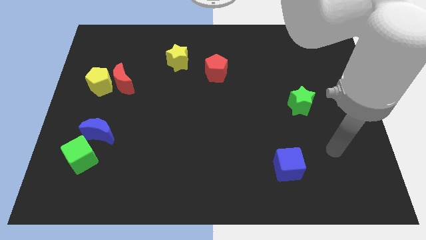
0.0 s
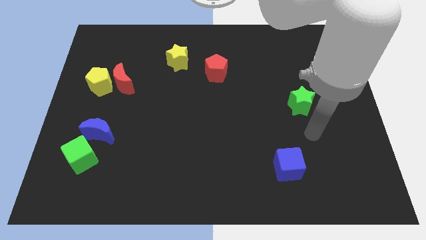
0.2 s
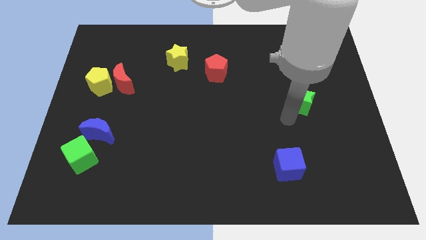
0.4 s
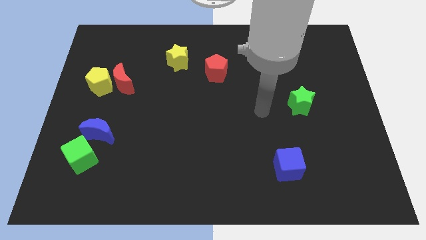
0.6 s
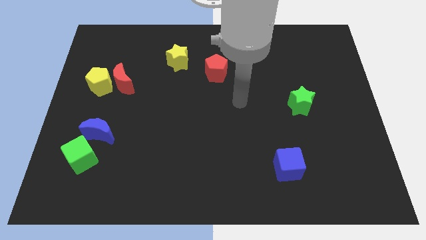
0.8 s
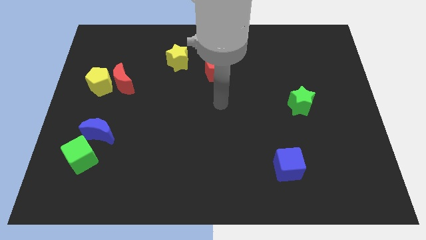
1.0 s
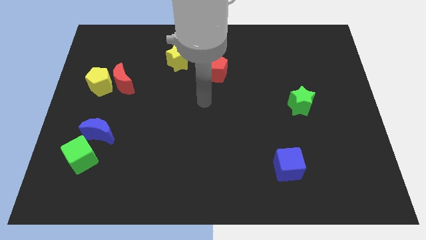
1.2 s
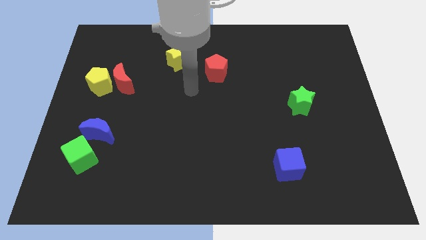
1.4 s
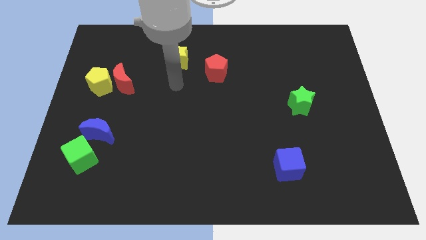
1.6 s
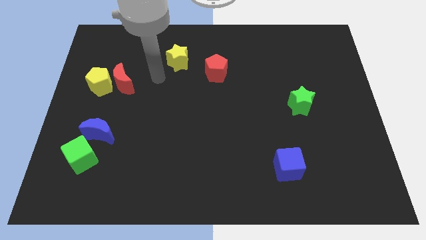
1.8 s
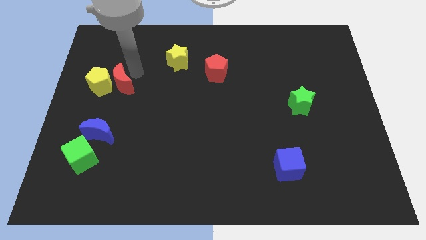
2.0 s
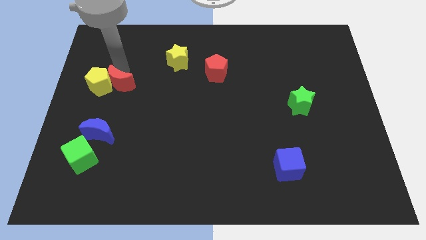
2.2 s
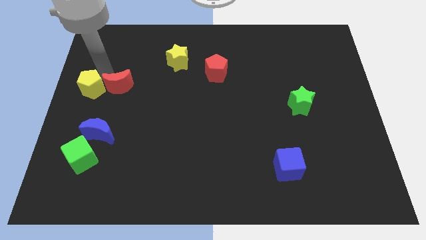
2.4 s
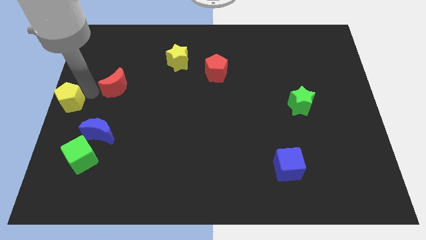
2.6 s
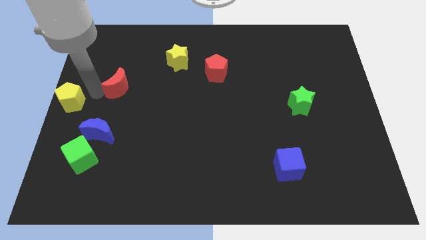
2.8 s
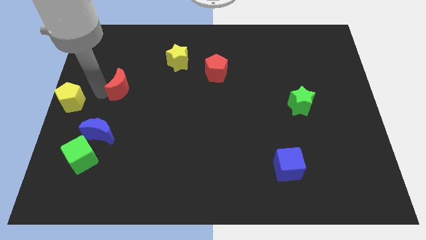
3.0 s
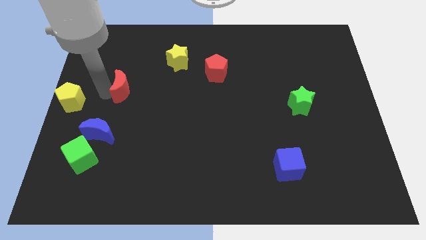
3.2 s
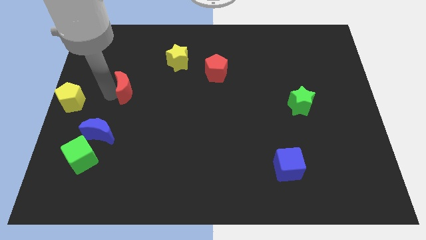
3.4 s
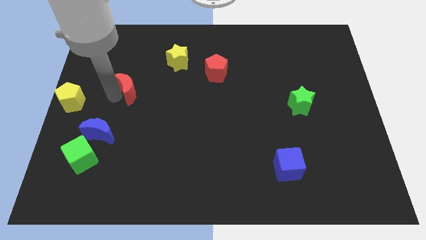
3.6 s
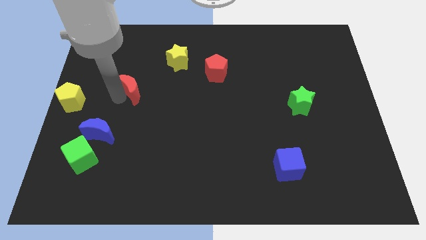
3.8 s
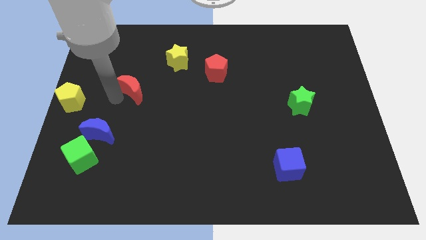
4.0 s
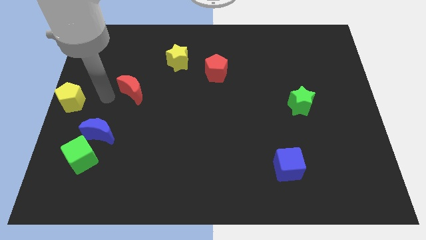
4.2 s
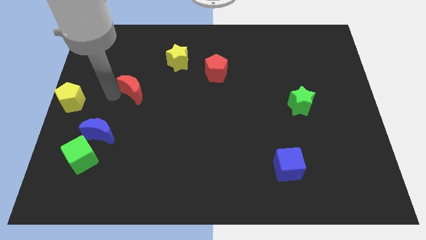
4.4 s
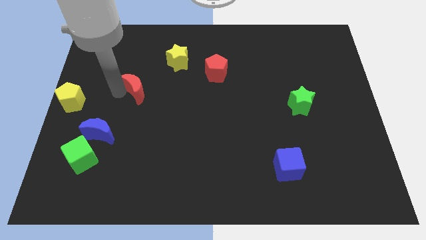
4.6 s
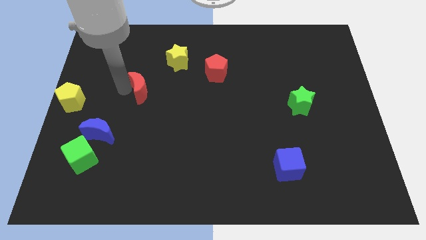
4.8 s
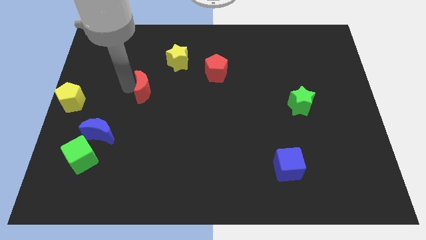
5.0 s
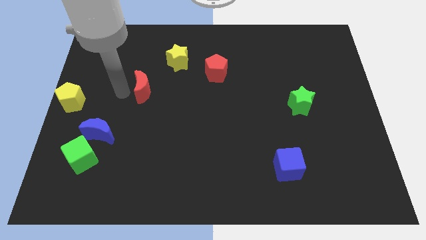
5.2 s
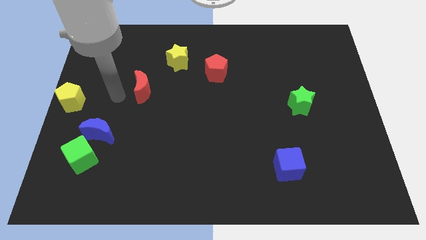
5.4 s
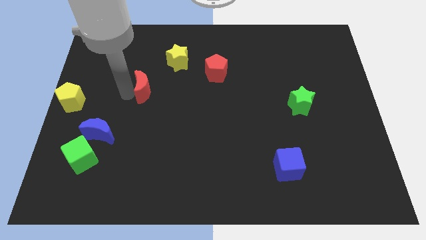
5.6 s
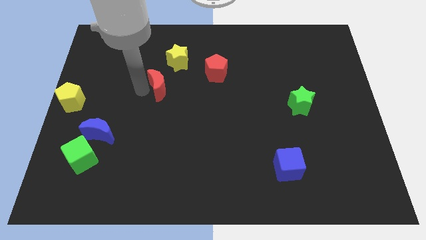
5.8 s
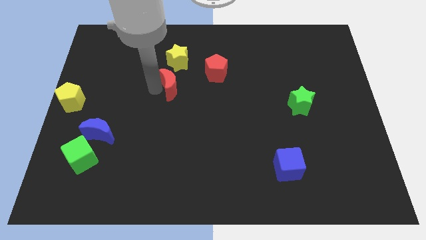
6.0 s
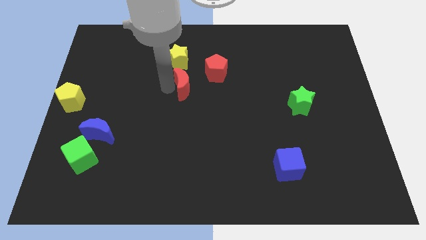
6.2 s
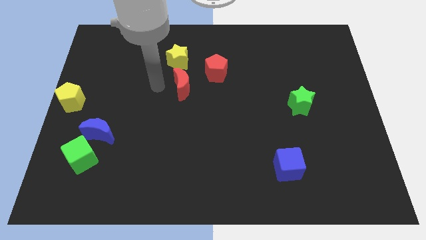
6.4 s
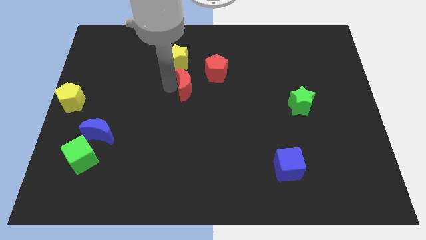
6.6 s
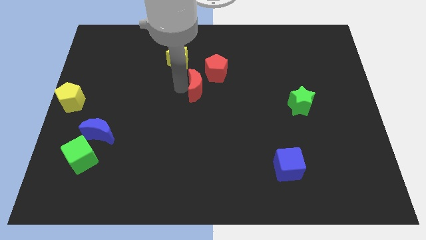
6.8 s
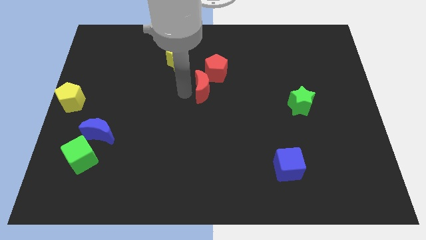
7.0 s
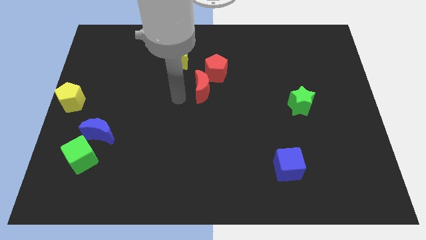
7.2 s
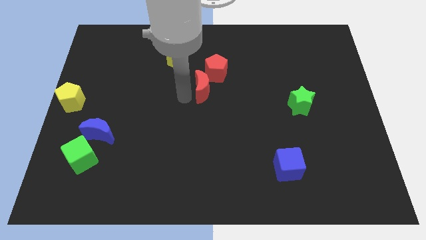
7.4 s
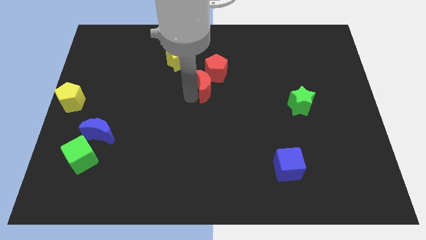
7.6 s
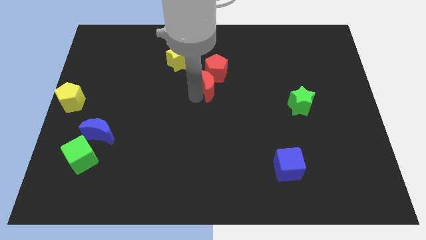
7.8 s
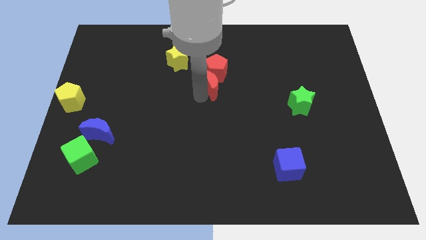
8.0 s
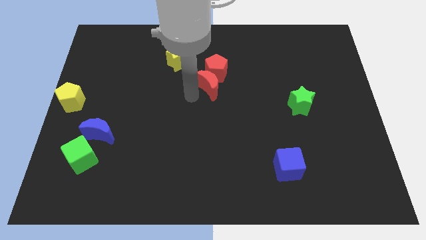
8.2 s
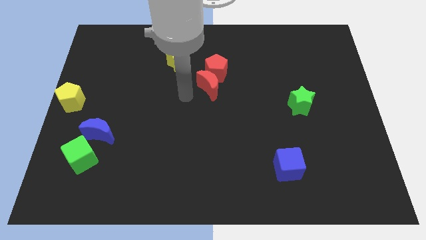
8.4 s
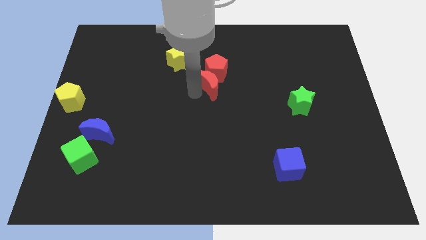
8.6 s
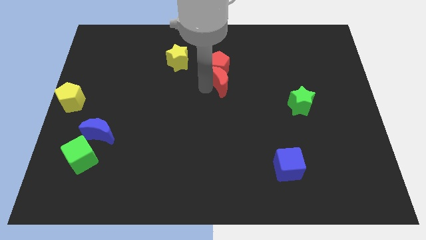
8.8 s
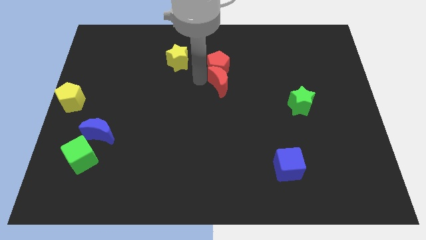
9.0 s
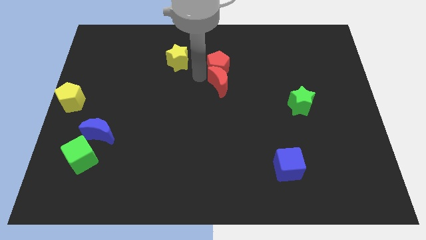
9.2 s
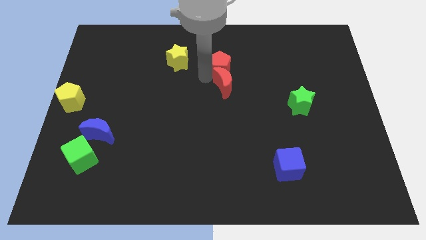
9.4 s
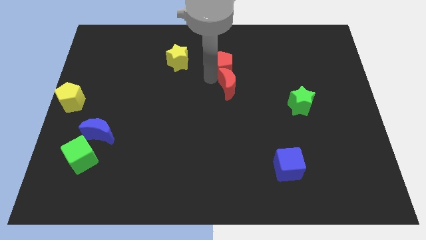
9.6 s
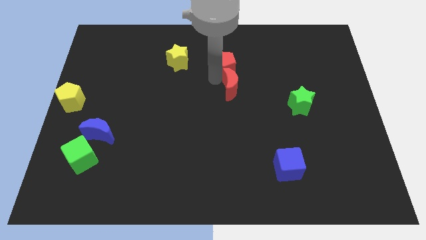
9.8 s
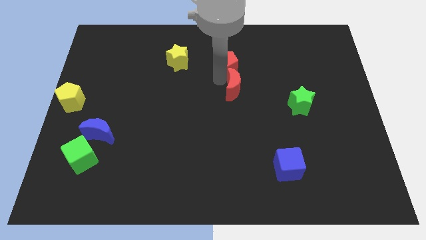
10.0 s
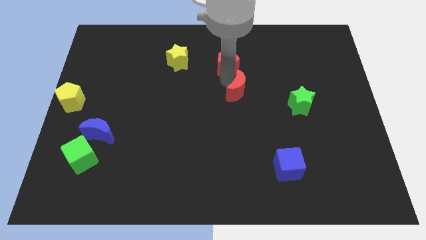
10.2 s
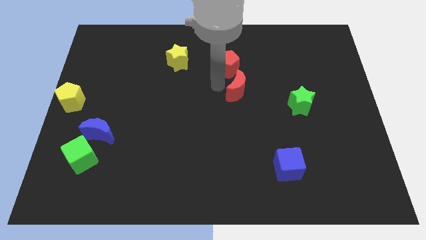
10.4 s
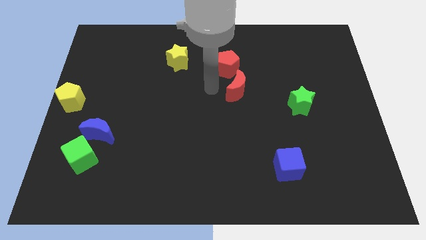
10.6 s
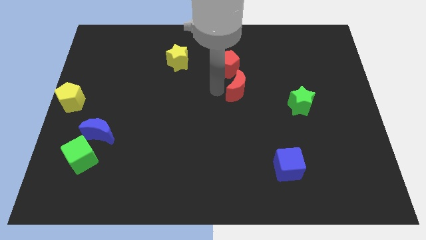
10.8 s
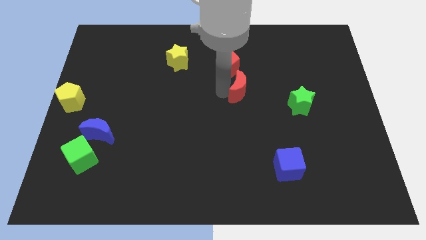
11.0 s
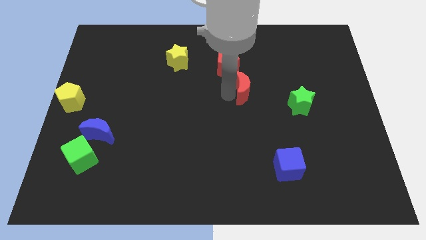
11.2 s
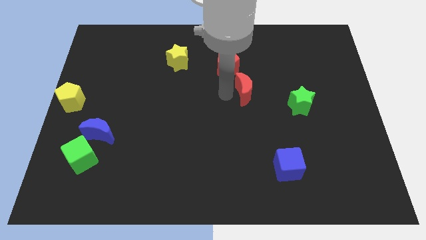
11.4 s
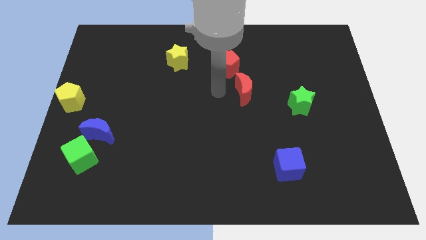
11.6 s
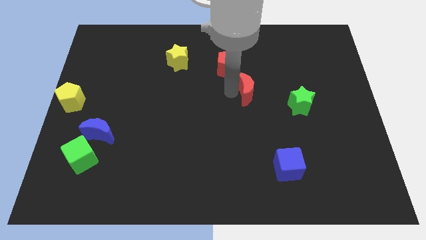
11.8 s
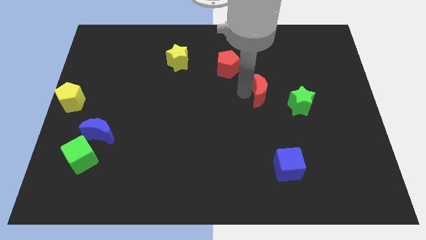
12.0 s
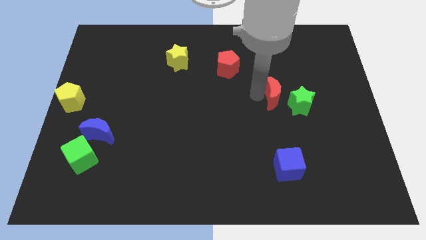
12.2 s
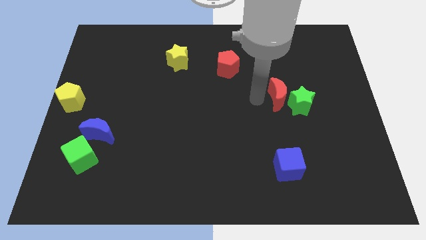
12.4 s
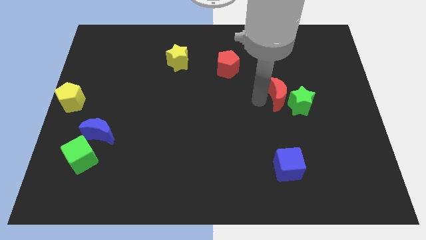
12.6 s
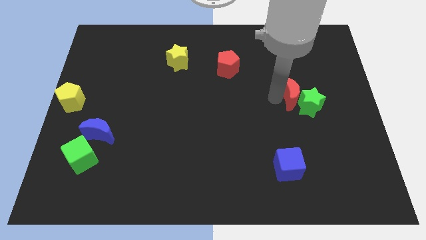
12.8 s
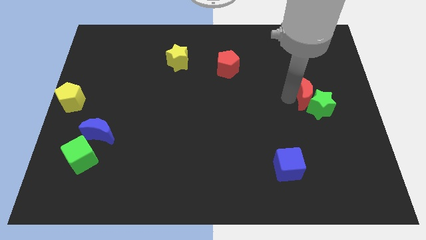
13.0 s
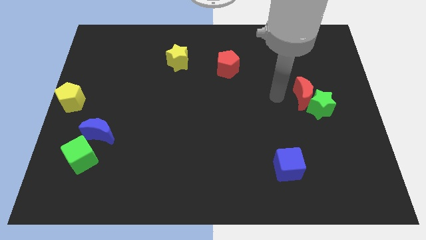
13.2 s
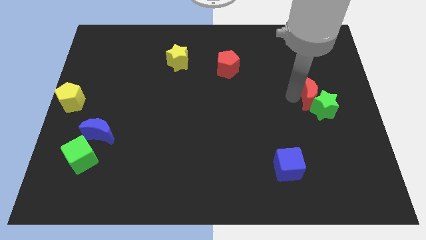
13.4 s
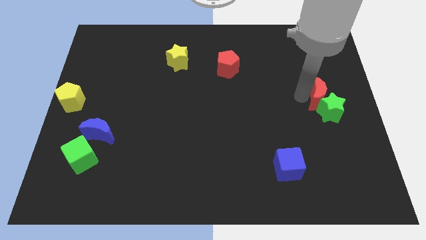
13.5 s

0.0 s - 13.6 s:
slide the red moon to the right side
